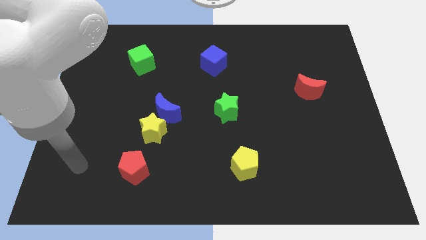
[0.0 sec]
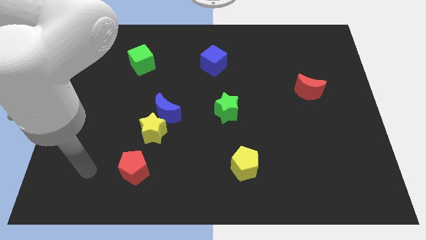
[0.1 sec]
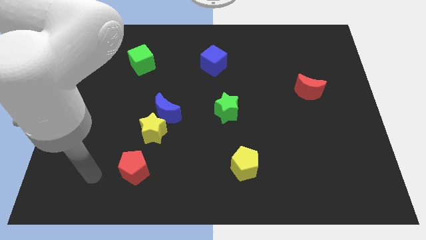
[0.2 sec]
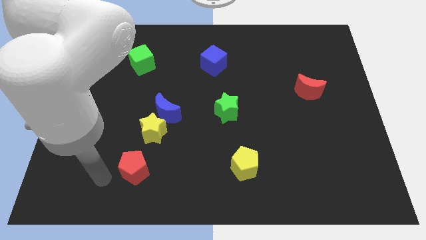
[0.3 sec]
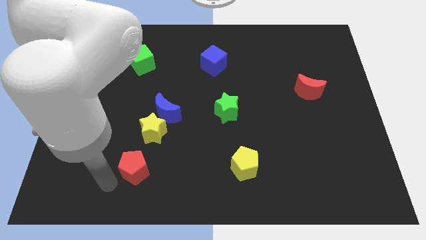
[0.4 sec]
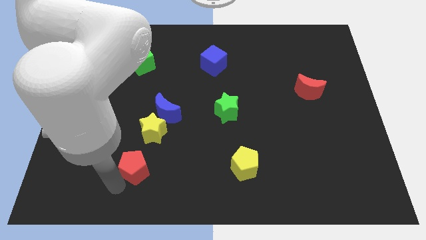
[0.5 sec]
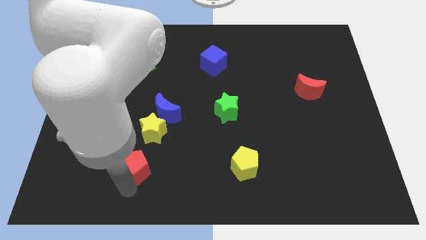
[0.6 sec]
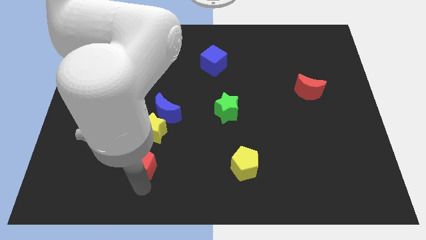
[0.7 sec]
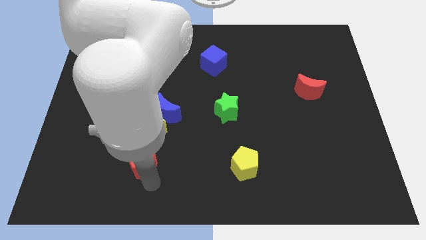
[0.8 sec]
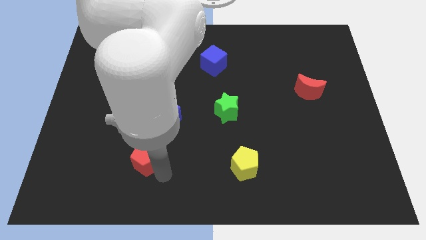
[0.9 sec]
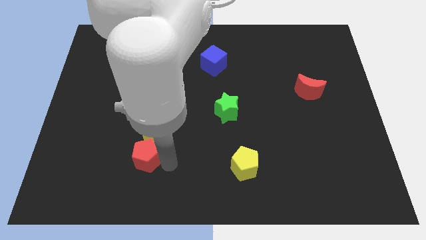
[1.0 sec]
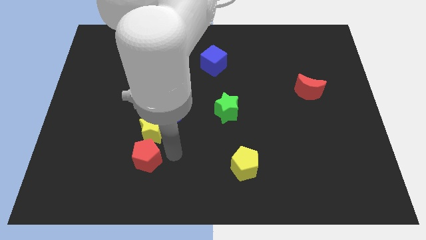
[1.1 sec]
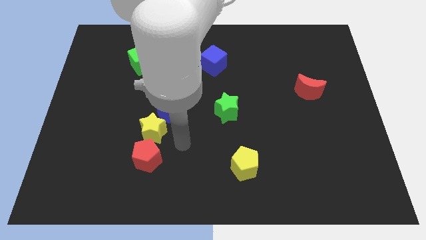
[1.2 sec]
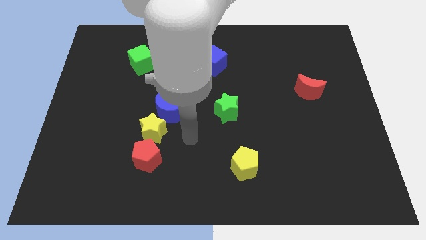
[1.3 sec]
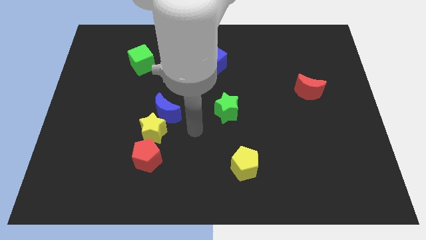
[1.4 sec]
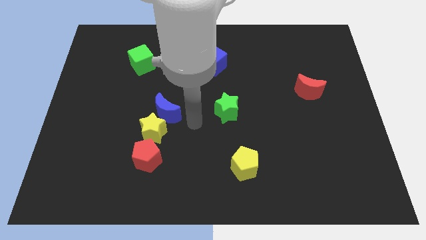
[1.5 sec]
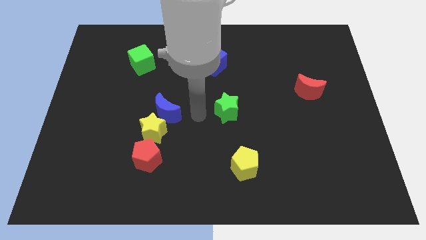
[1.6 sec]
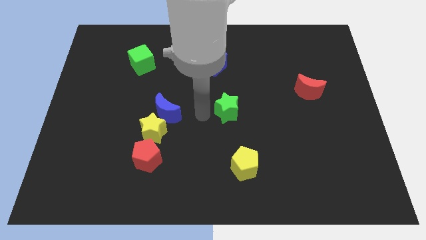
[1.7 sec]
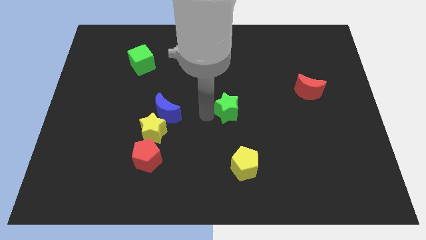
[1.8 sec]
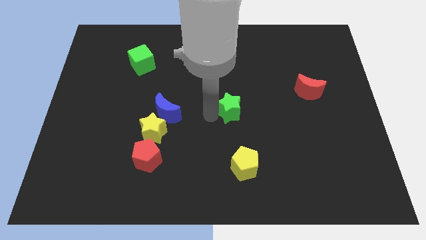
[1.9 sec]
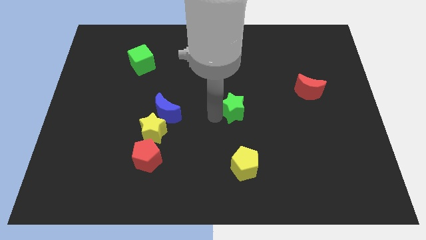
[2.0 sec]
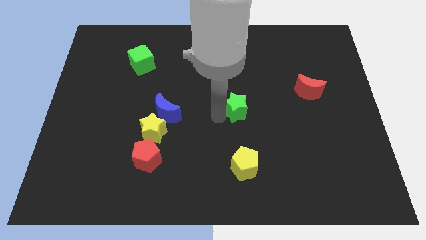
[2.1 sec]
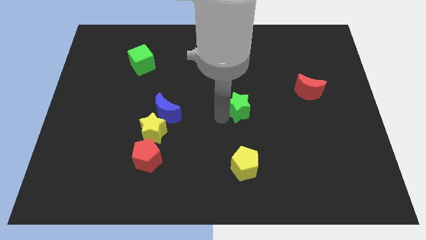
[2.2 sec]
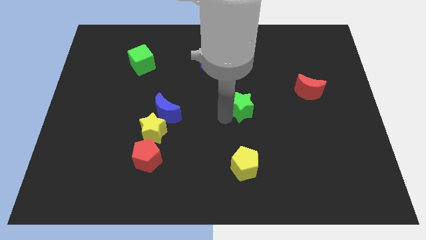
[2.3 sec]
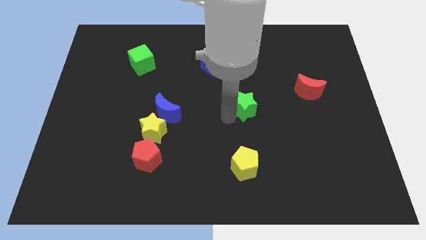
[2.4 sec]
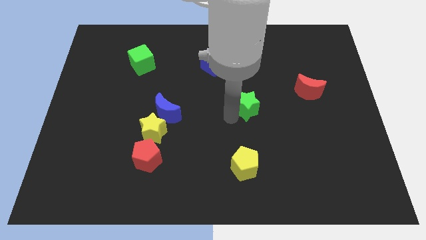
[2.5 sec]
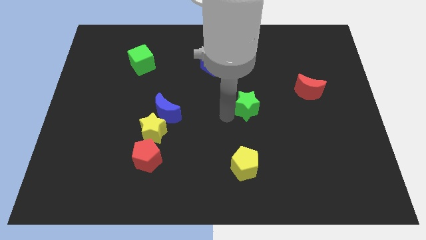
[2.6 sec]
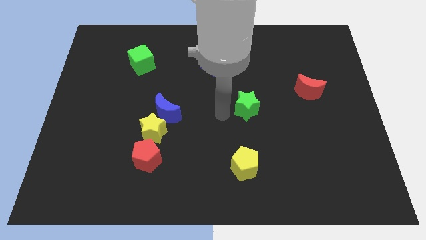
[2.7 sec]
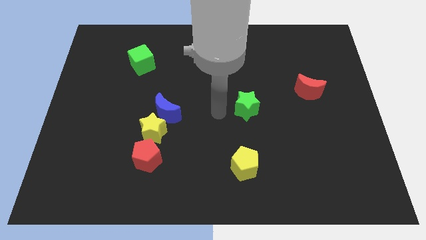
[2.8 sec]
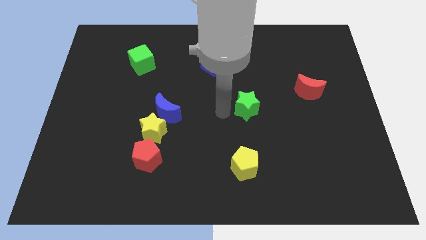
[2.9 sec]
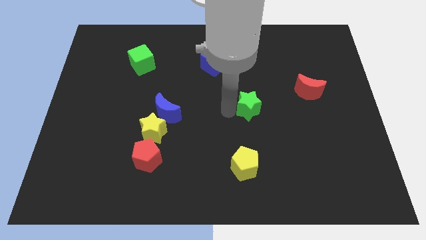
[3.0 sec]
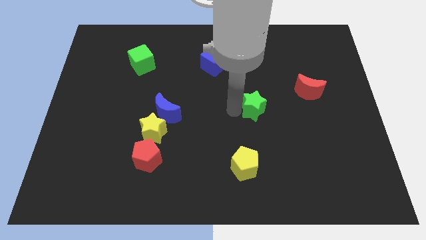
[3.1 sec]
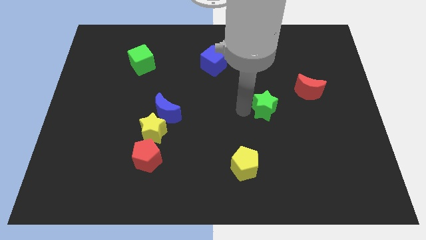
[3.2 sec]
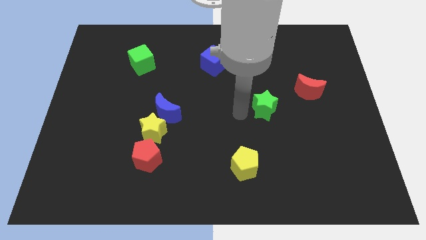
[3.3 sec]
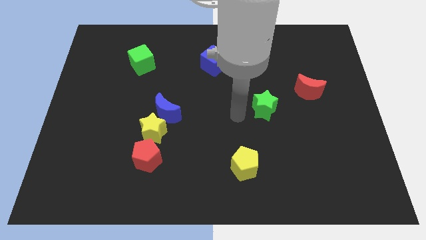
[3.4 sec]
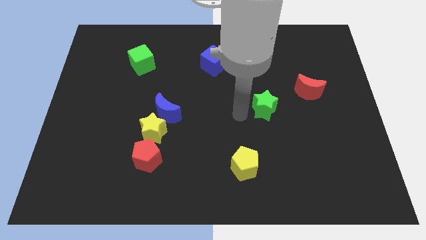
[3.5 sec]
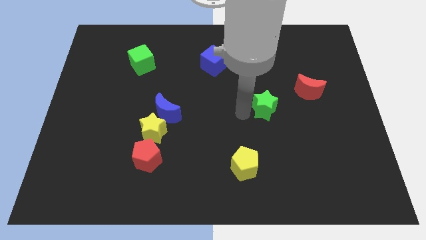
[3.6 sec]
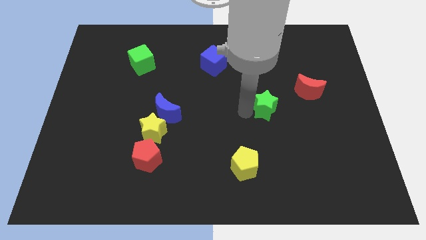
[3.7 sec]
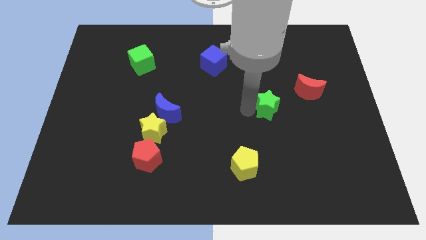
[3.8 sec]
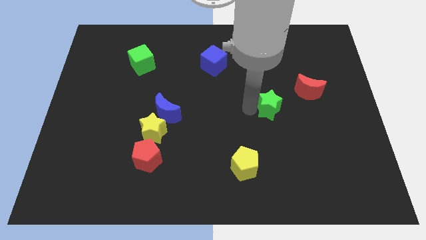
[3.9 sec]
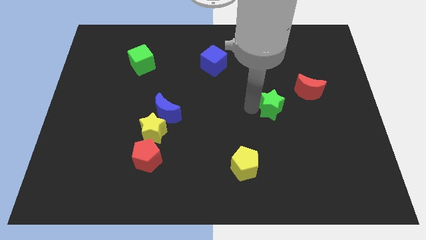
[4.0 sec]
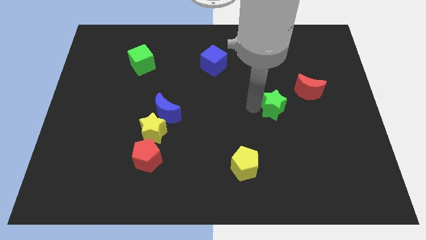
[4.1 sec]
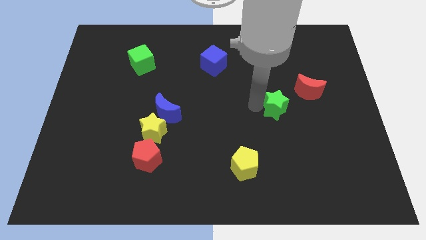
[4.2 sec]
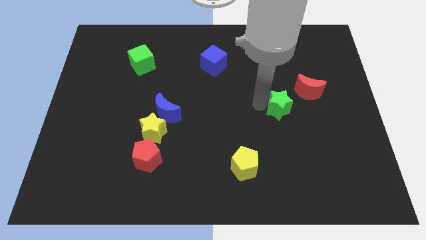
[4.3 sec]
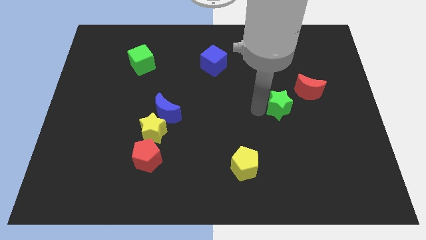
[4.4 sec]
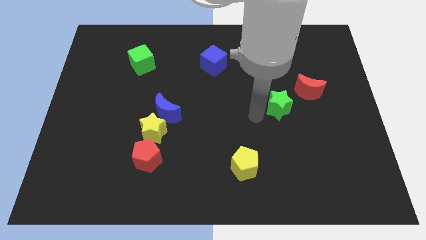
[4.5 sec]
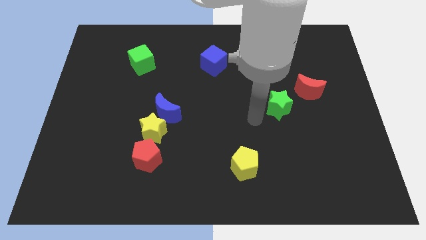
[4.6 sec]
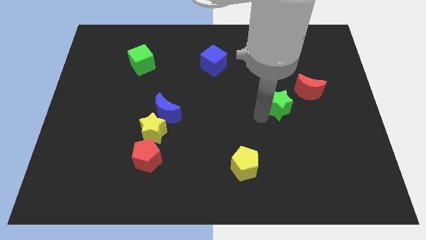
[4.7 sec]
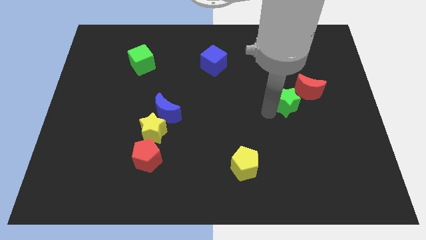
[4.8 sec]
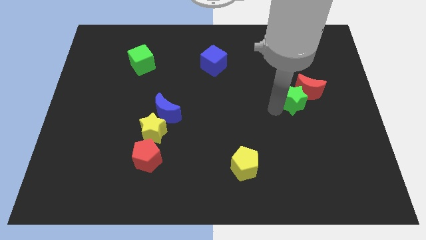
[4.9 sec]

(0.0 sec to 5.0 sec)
push the green star towards the red moon

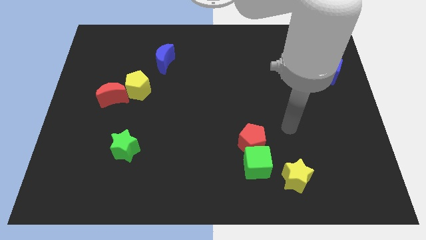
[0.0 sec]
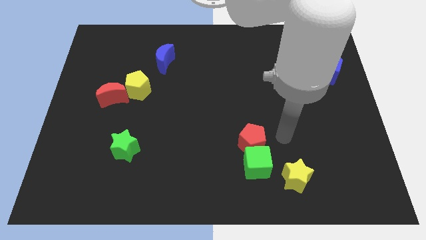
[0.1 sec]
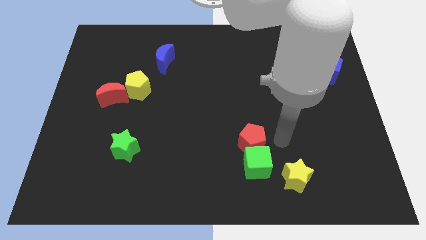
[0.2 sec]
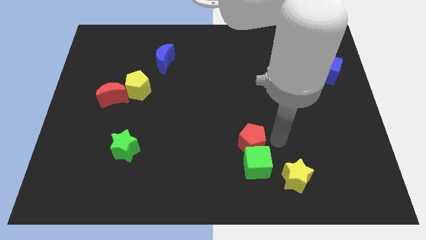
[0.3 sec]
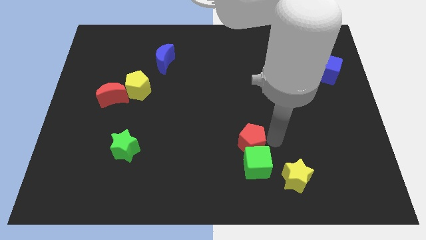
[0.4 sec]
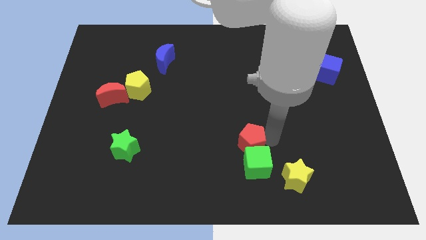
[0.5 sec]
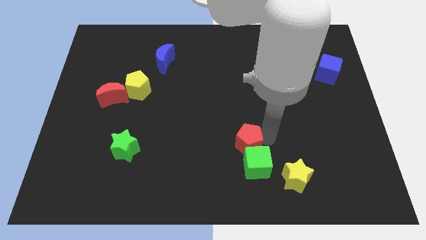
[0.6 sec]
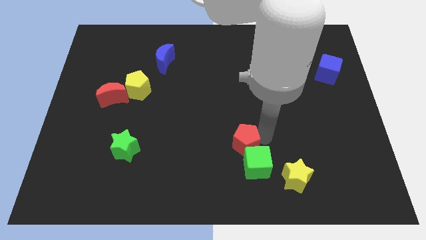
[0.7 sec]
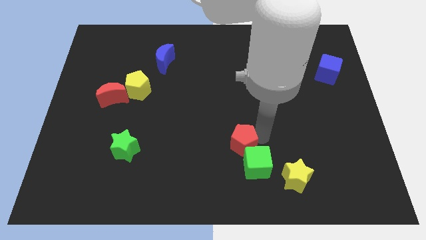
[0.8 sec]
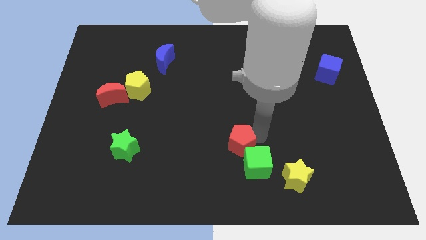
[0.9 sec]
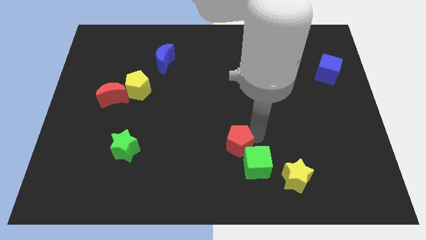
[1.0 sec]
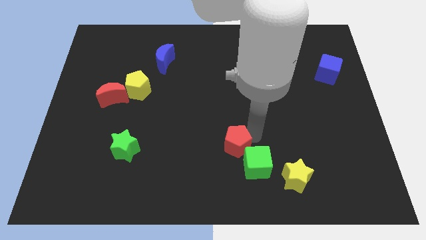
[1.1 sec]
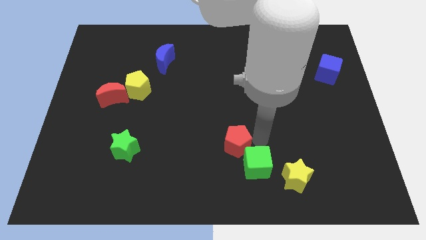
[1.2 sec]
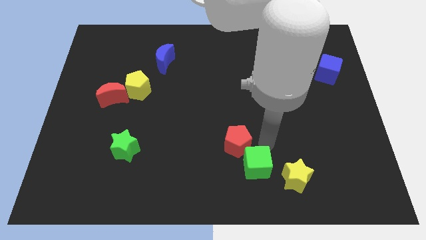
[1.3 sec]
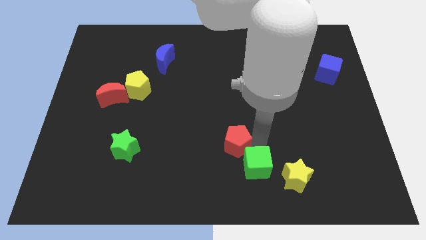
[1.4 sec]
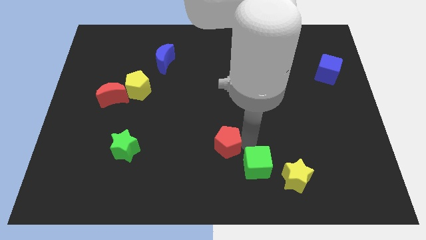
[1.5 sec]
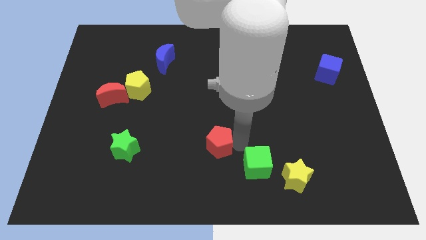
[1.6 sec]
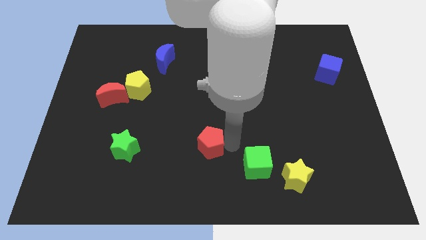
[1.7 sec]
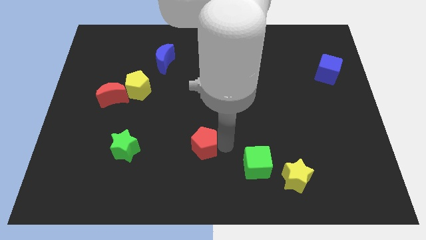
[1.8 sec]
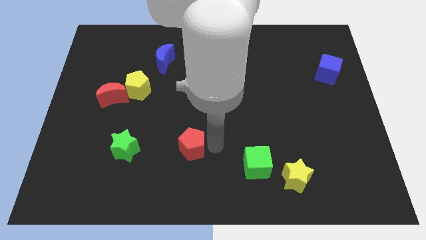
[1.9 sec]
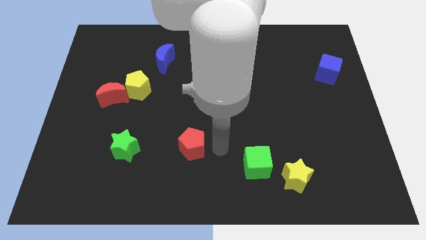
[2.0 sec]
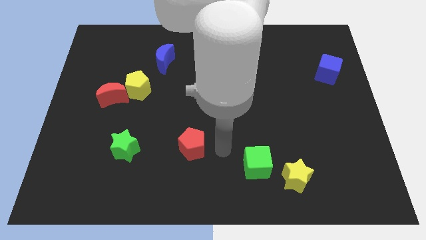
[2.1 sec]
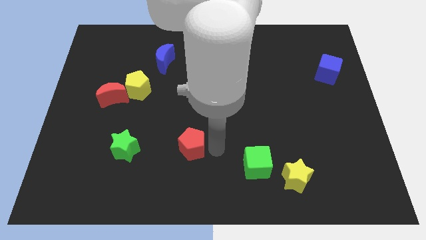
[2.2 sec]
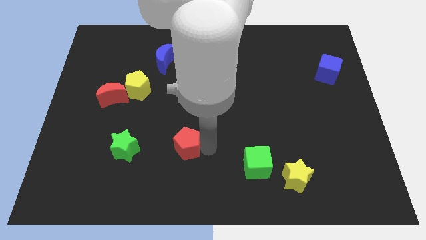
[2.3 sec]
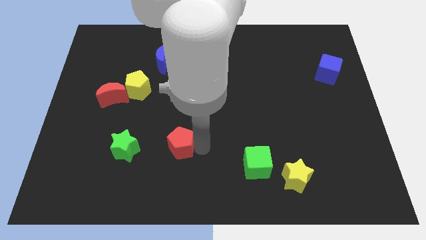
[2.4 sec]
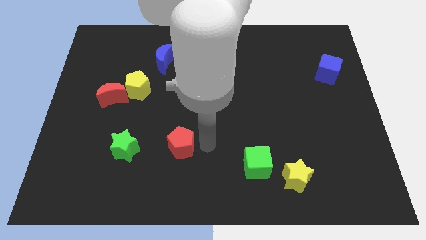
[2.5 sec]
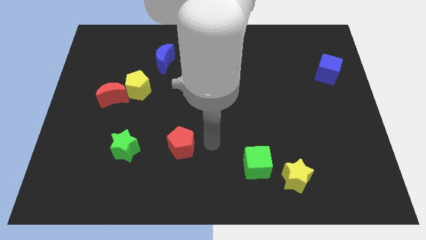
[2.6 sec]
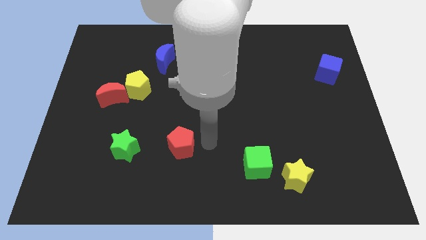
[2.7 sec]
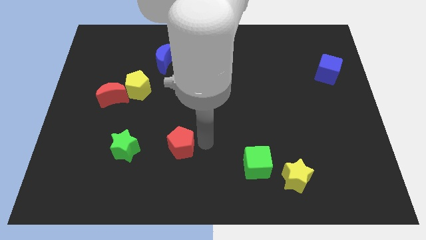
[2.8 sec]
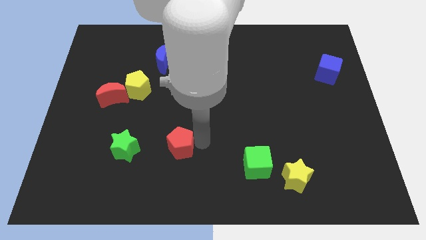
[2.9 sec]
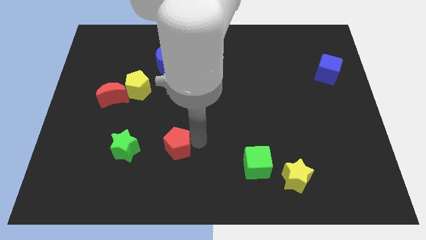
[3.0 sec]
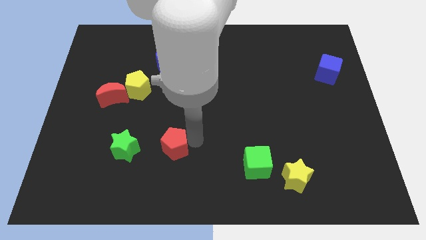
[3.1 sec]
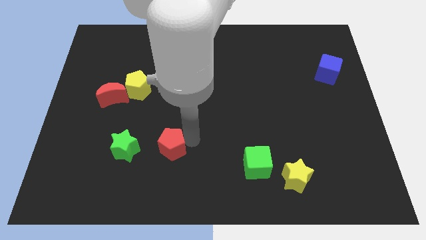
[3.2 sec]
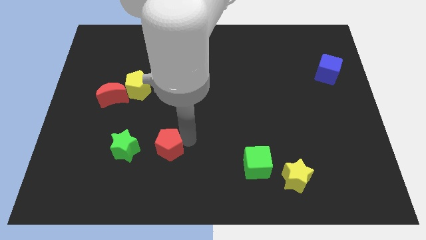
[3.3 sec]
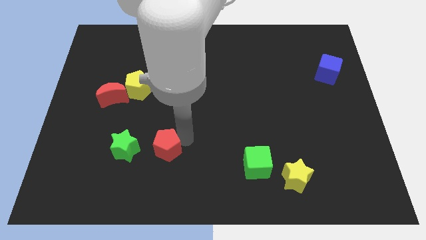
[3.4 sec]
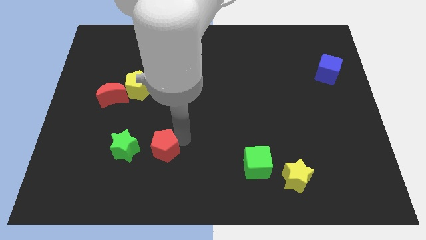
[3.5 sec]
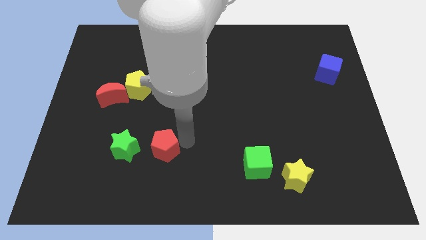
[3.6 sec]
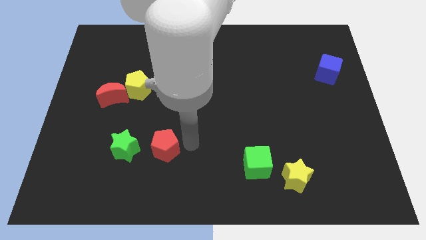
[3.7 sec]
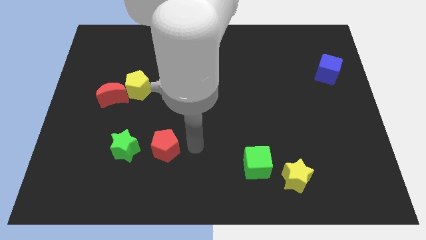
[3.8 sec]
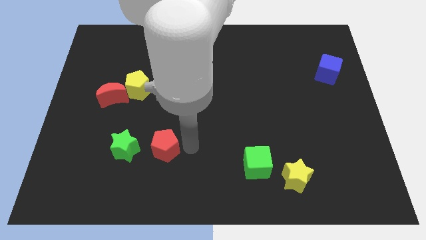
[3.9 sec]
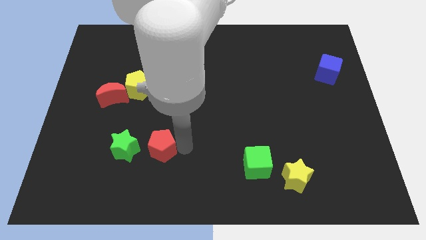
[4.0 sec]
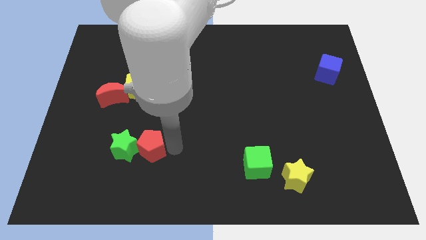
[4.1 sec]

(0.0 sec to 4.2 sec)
slide the red pentagon to the green star
